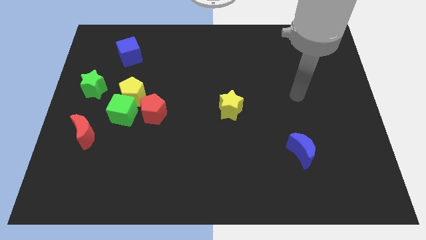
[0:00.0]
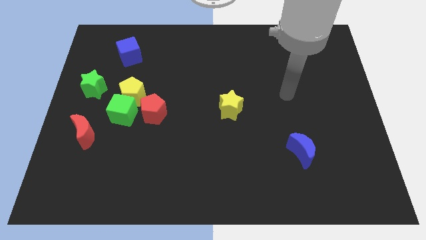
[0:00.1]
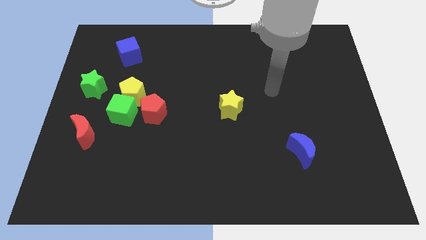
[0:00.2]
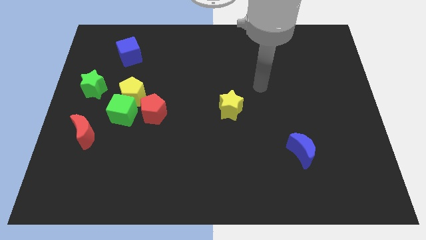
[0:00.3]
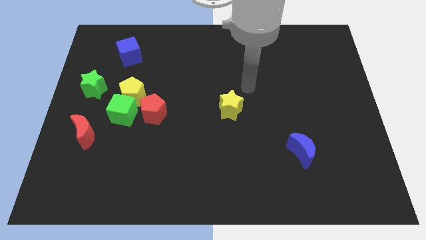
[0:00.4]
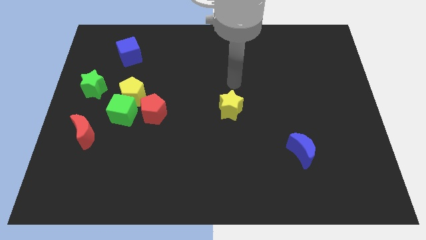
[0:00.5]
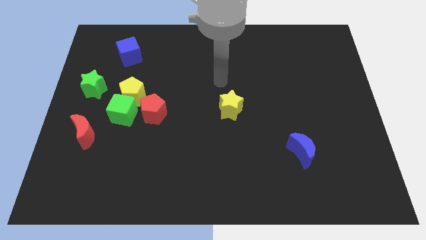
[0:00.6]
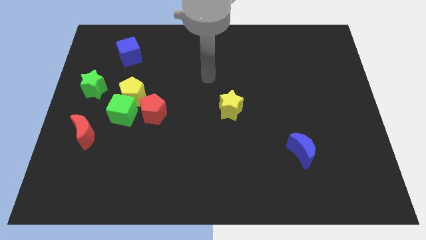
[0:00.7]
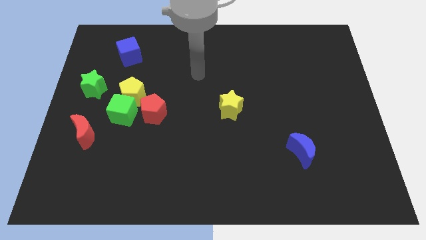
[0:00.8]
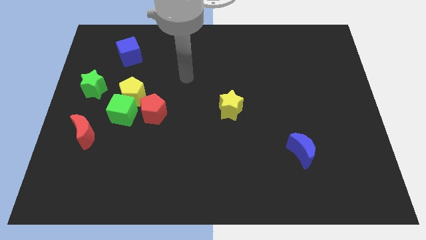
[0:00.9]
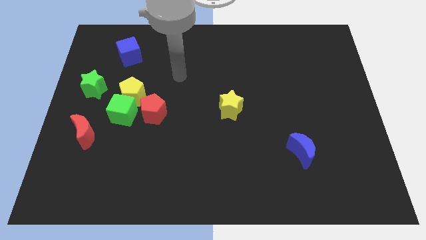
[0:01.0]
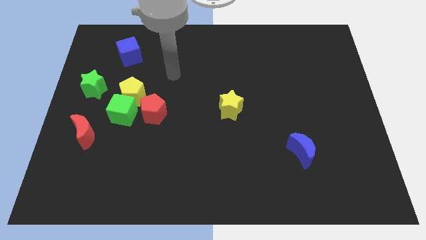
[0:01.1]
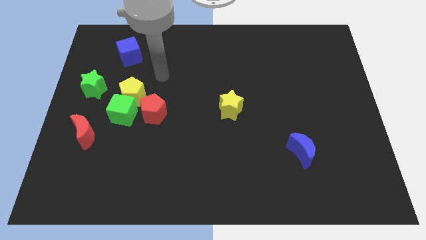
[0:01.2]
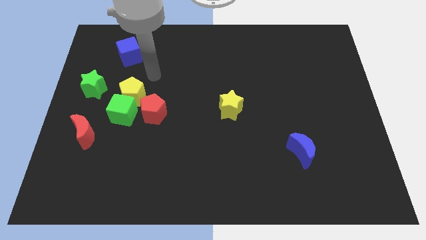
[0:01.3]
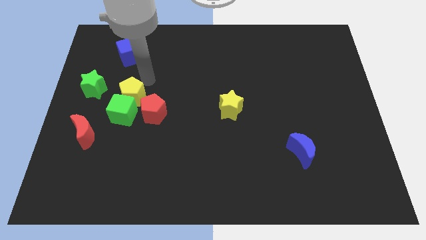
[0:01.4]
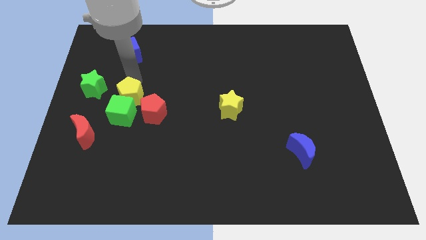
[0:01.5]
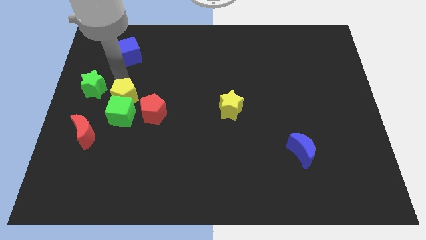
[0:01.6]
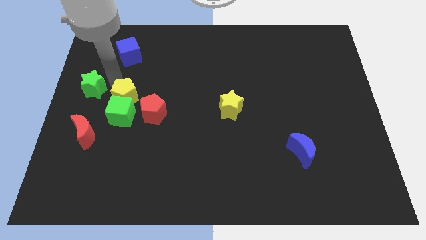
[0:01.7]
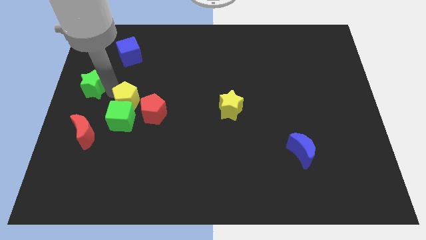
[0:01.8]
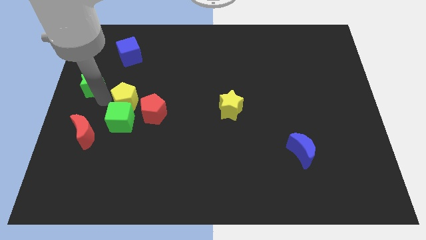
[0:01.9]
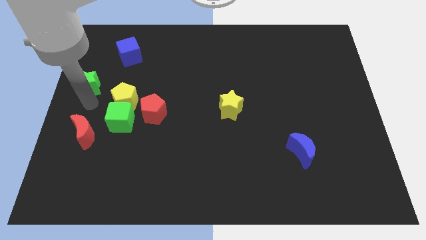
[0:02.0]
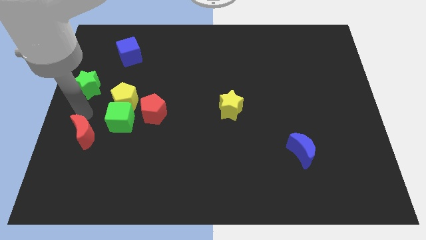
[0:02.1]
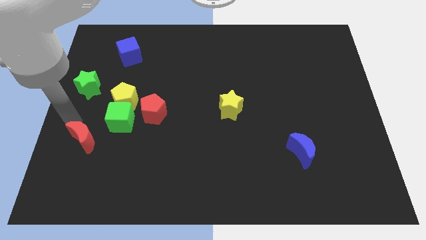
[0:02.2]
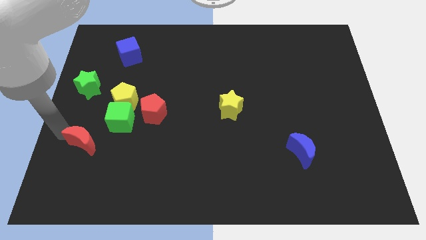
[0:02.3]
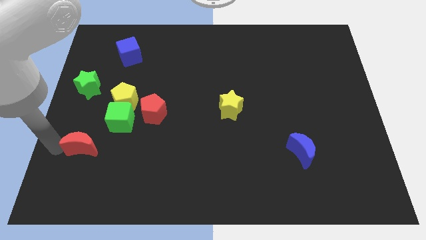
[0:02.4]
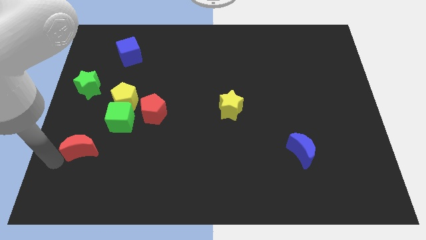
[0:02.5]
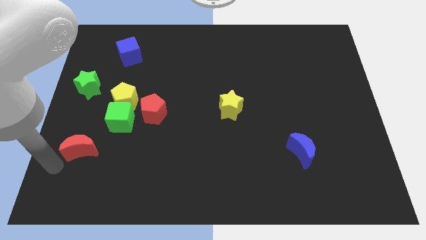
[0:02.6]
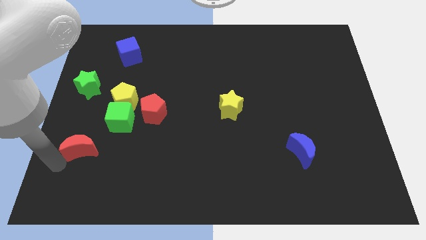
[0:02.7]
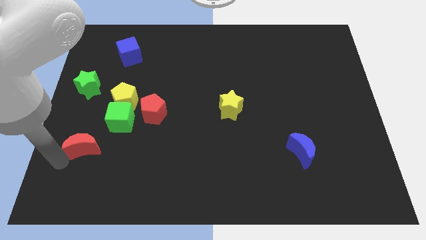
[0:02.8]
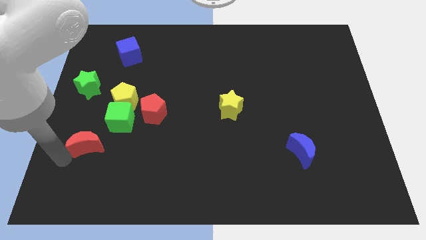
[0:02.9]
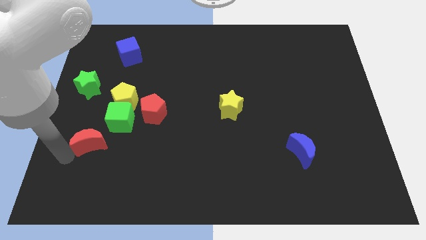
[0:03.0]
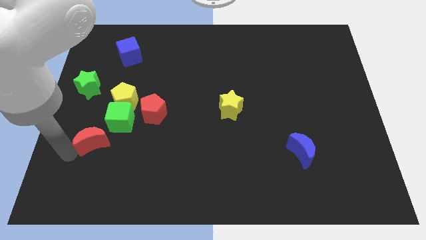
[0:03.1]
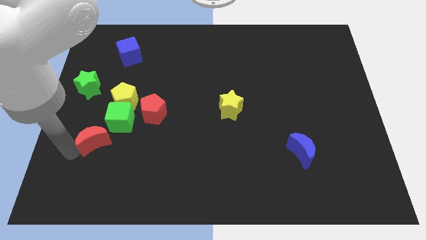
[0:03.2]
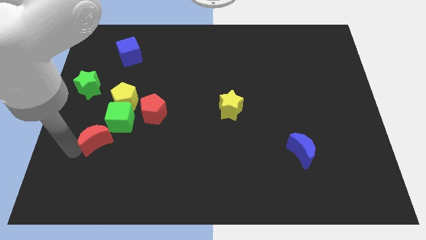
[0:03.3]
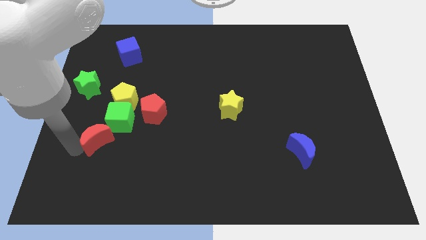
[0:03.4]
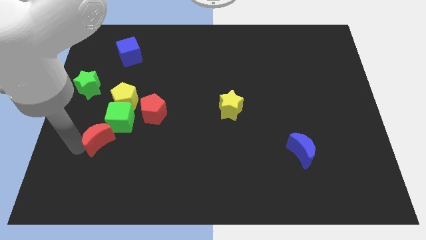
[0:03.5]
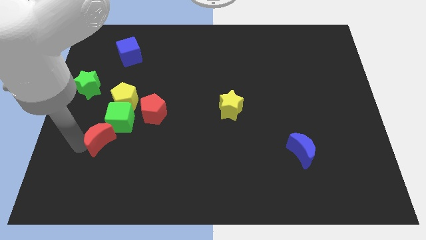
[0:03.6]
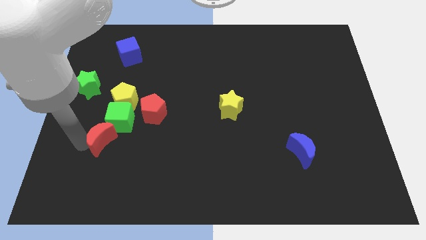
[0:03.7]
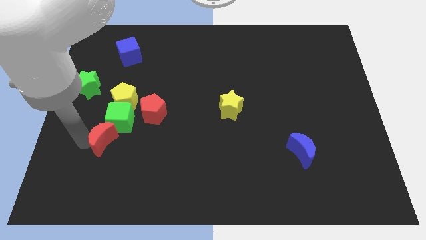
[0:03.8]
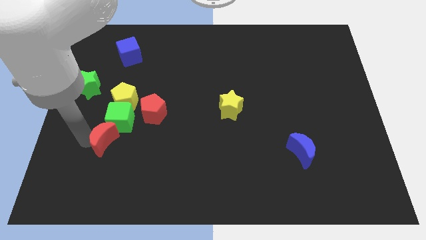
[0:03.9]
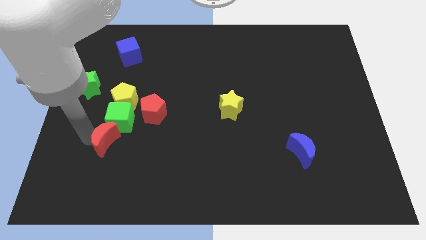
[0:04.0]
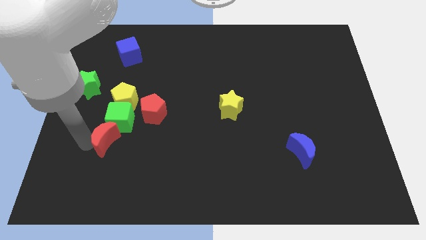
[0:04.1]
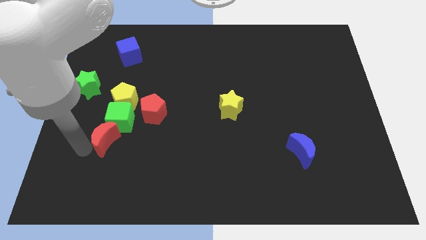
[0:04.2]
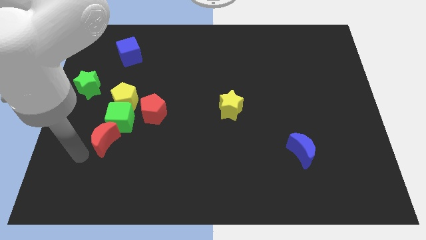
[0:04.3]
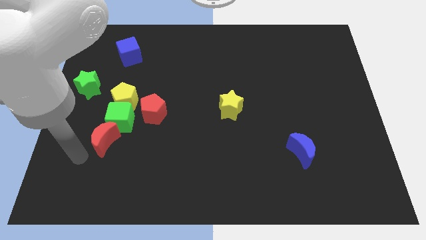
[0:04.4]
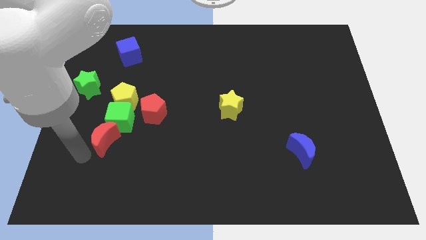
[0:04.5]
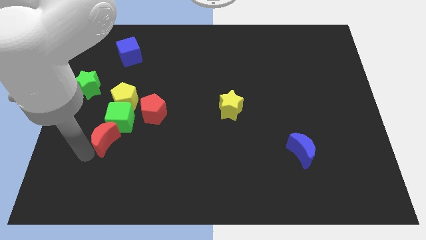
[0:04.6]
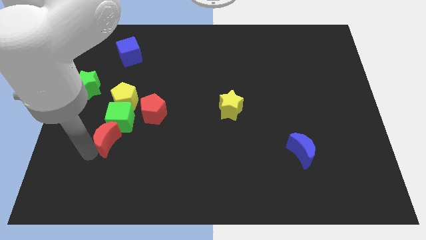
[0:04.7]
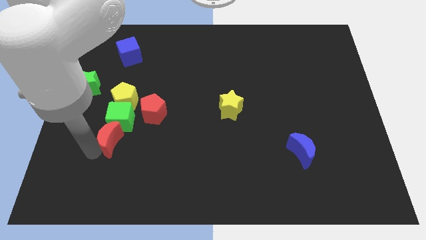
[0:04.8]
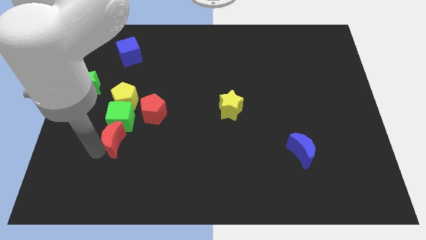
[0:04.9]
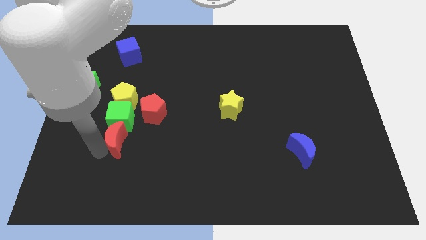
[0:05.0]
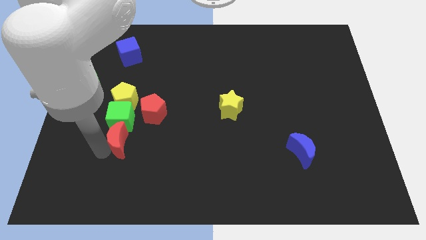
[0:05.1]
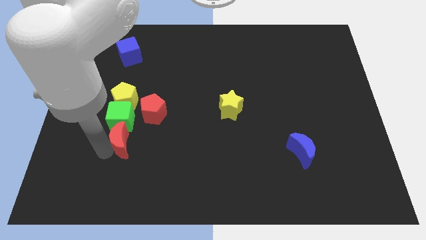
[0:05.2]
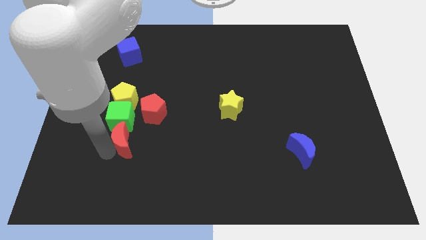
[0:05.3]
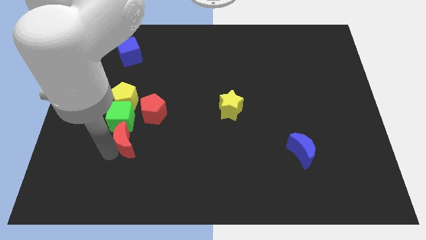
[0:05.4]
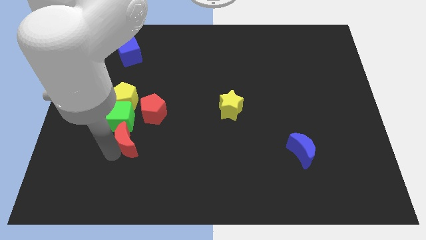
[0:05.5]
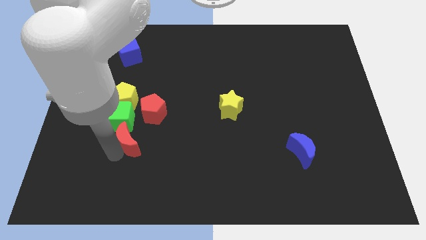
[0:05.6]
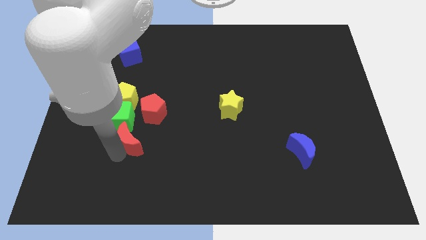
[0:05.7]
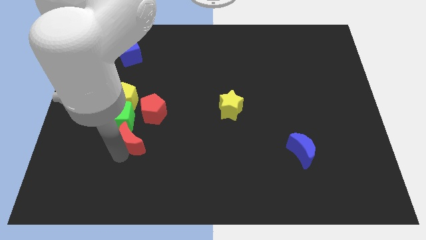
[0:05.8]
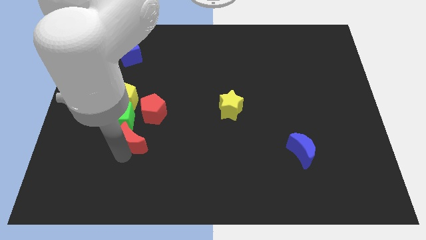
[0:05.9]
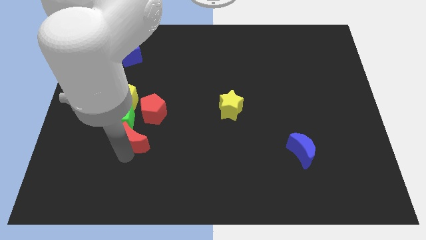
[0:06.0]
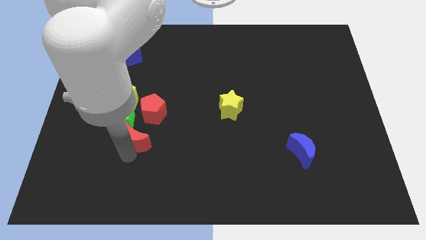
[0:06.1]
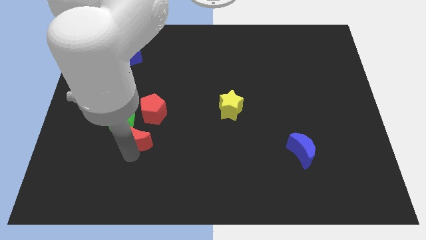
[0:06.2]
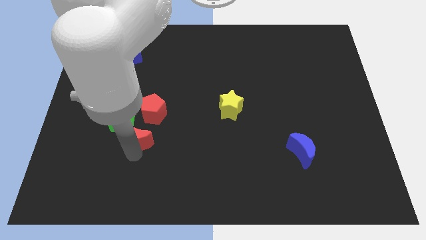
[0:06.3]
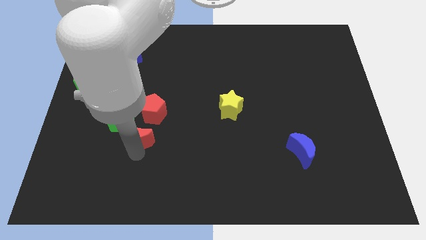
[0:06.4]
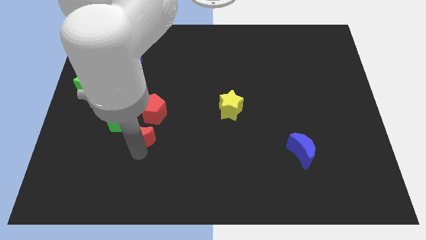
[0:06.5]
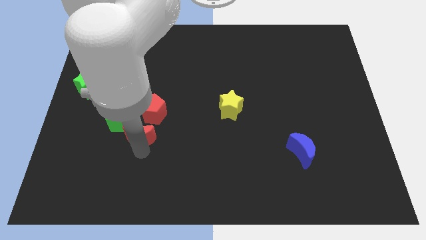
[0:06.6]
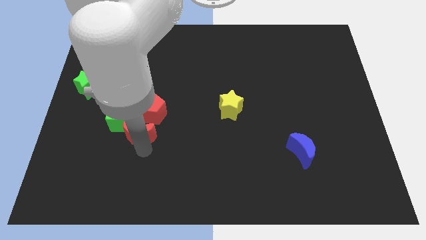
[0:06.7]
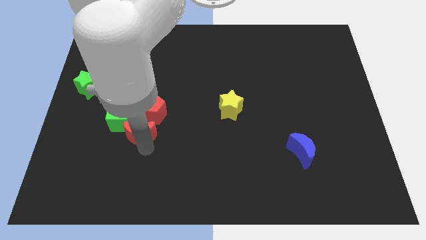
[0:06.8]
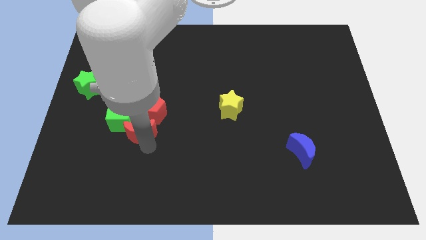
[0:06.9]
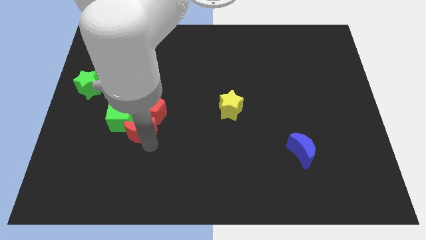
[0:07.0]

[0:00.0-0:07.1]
move the red moon to the red pentagon

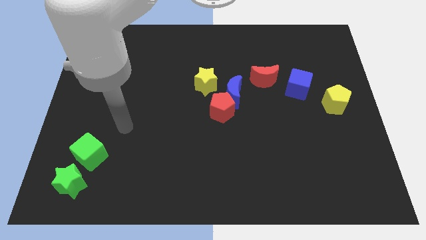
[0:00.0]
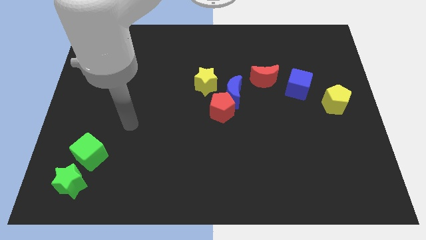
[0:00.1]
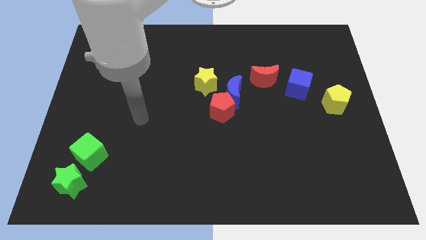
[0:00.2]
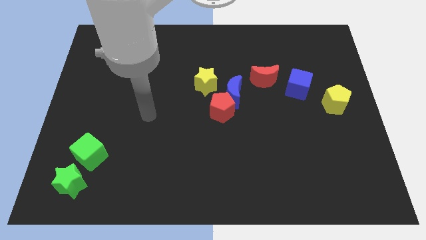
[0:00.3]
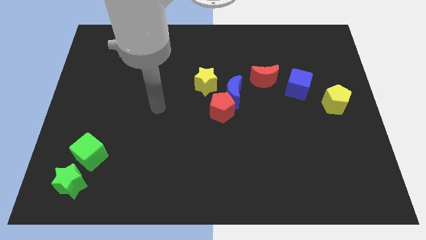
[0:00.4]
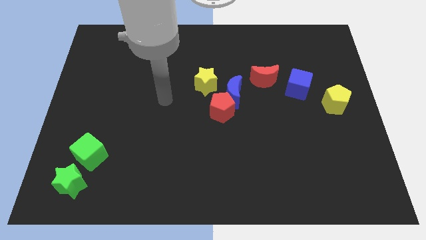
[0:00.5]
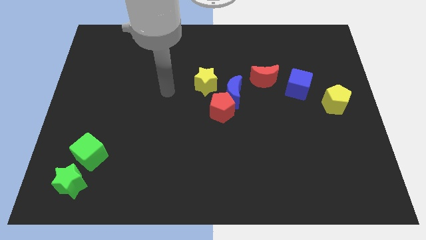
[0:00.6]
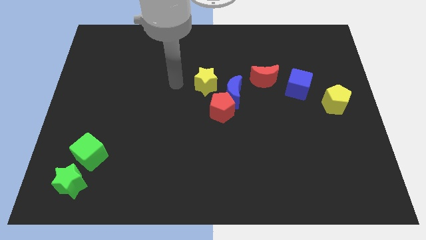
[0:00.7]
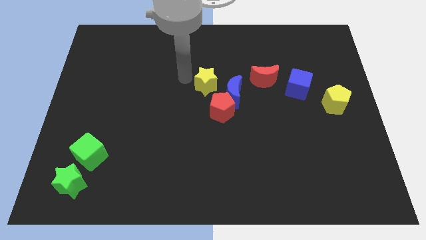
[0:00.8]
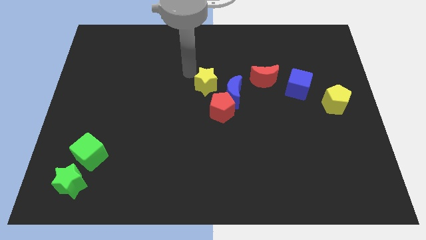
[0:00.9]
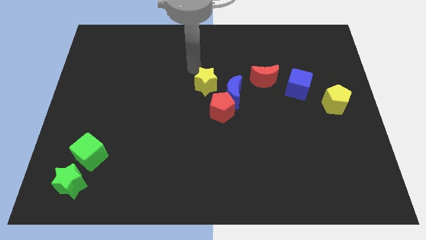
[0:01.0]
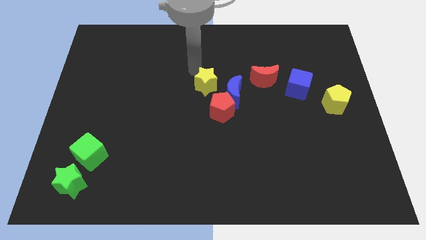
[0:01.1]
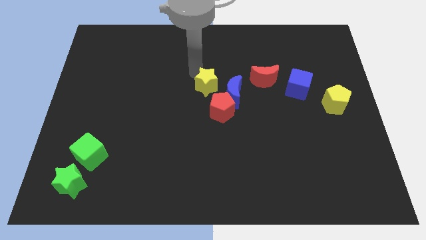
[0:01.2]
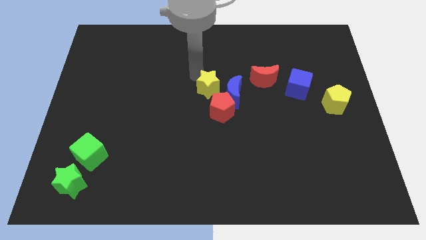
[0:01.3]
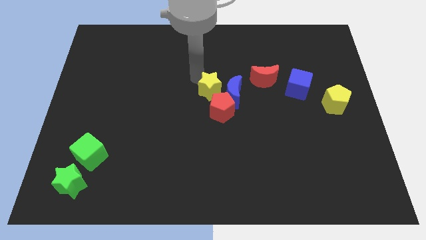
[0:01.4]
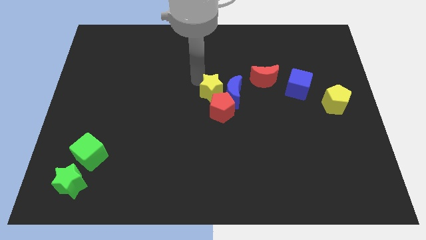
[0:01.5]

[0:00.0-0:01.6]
push the yellow star next to the red pentagon
